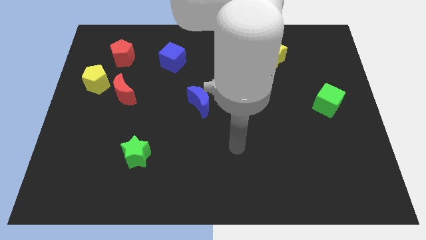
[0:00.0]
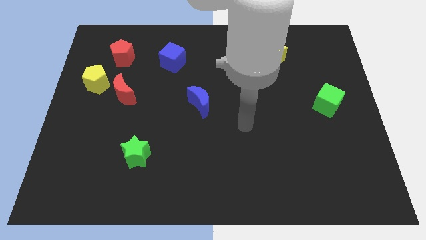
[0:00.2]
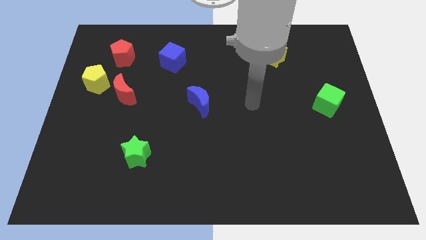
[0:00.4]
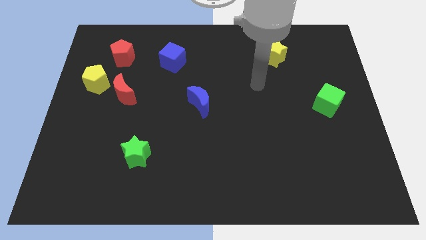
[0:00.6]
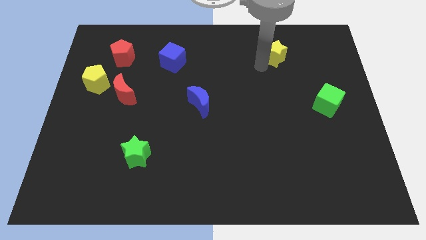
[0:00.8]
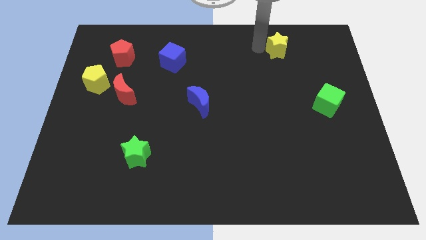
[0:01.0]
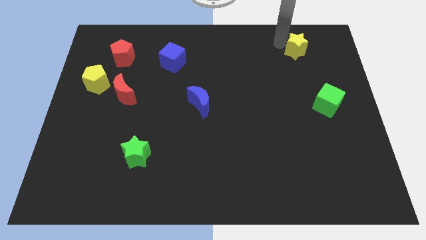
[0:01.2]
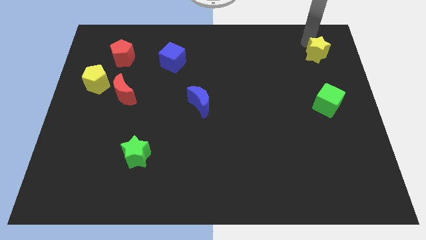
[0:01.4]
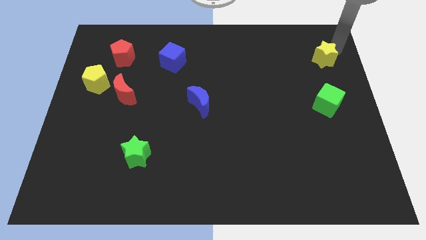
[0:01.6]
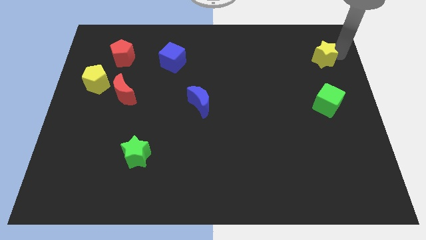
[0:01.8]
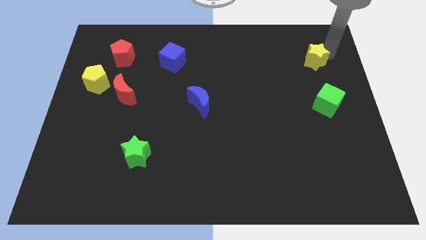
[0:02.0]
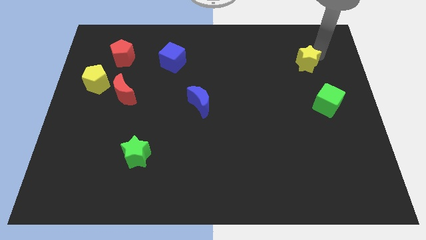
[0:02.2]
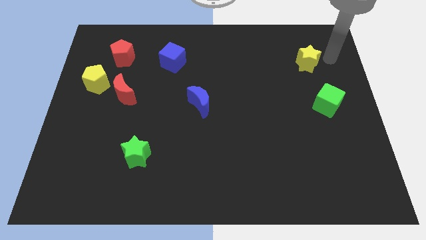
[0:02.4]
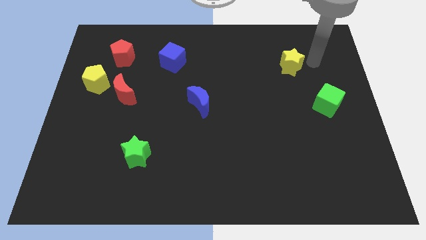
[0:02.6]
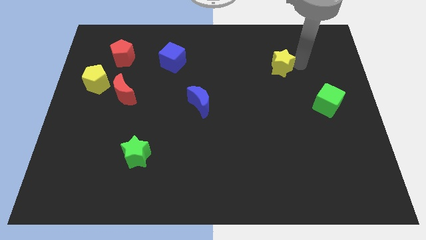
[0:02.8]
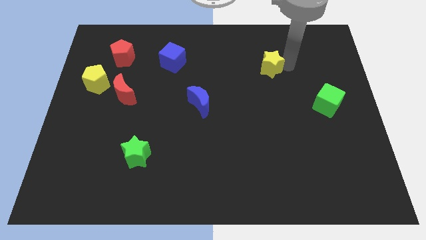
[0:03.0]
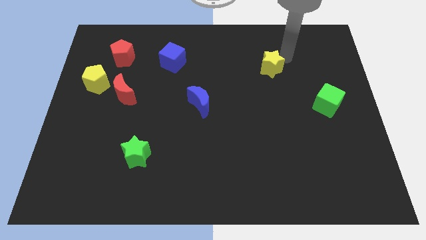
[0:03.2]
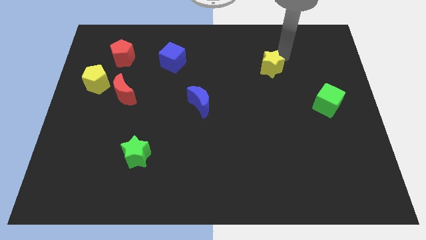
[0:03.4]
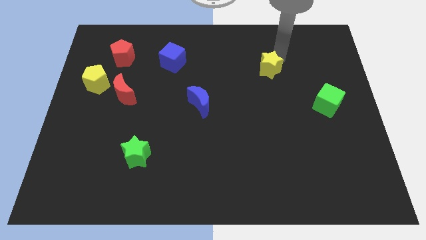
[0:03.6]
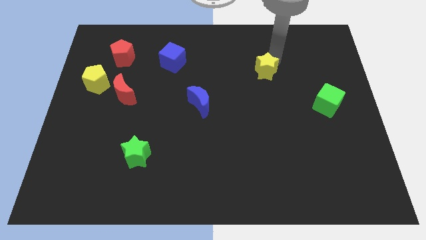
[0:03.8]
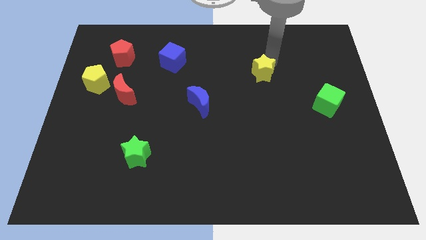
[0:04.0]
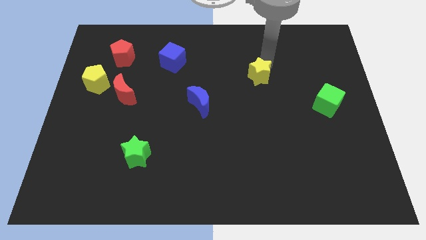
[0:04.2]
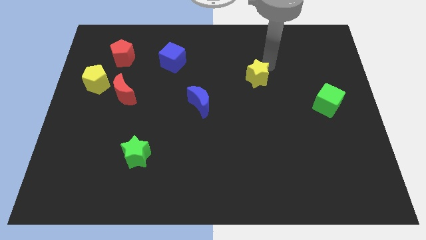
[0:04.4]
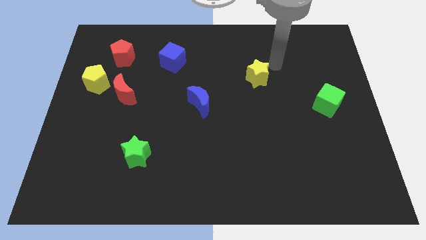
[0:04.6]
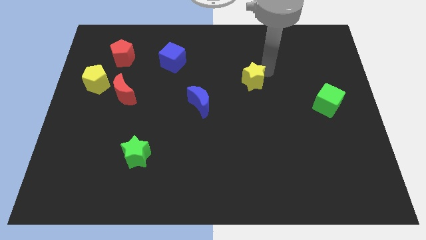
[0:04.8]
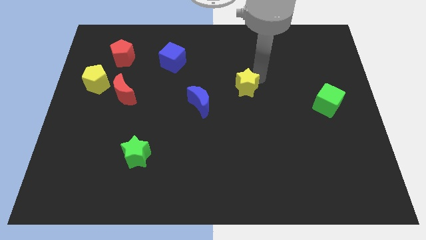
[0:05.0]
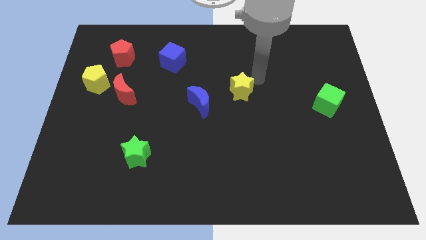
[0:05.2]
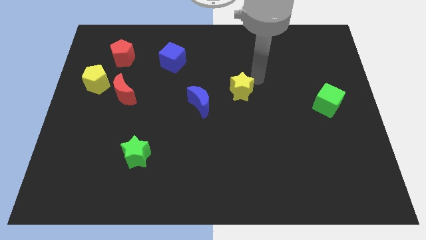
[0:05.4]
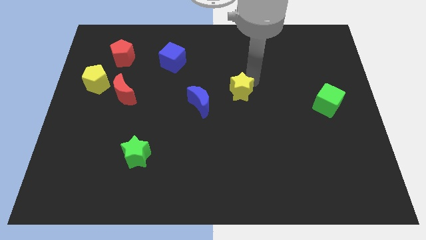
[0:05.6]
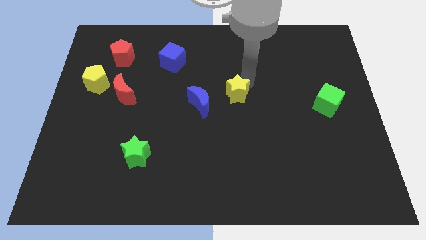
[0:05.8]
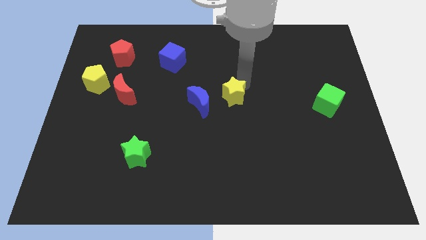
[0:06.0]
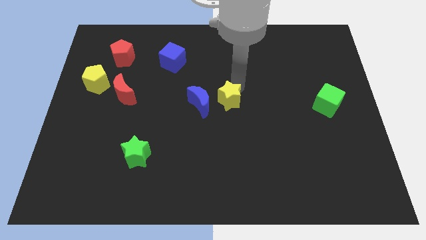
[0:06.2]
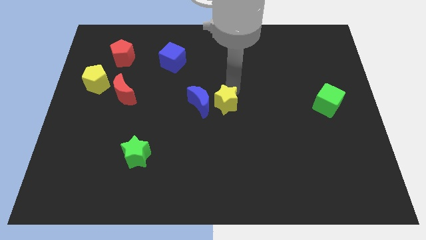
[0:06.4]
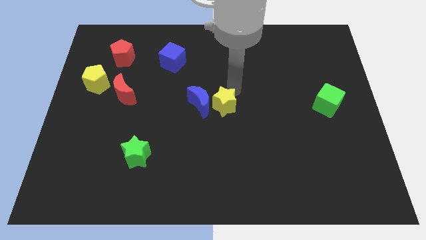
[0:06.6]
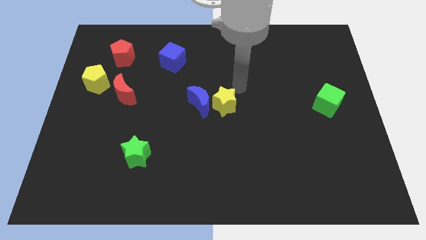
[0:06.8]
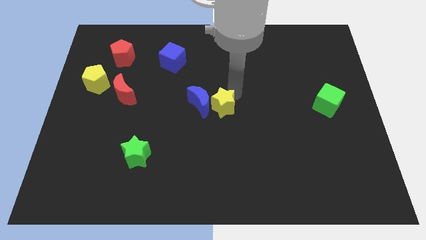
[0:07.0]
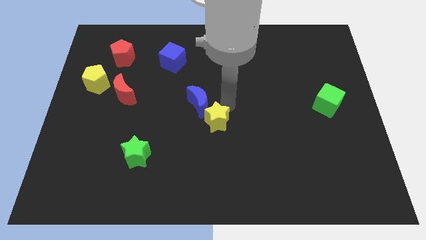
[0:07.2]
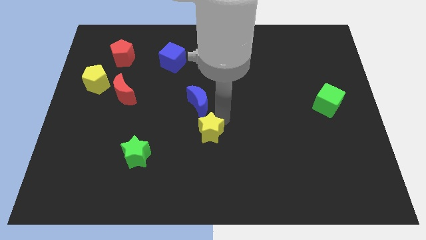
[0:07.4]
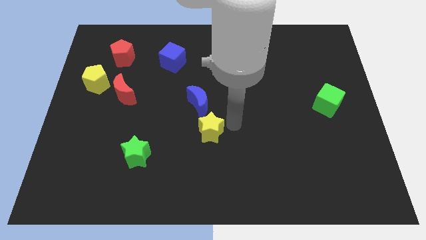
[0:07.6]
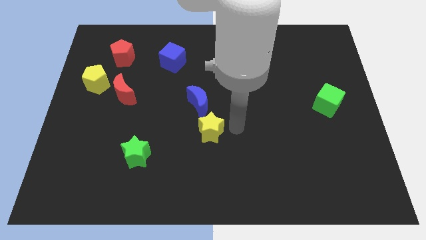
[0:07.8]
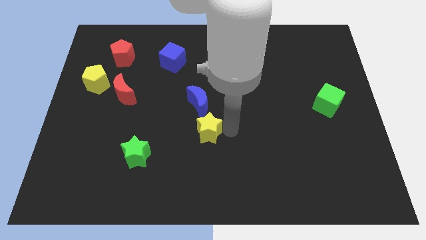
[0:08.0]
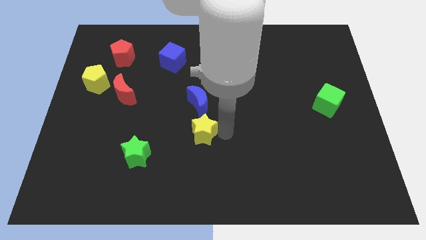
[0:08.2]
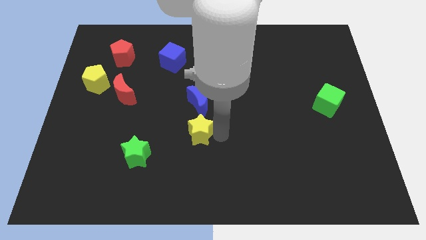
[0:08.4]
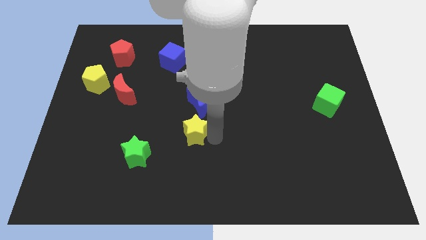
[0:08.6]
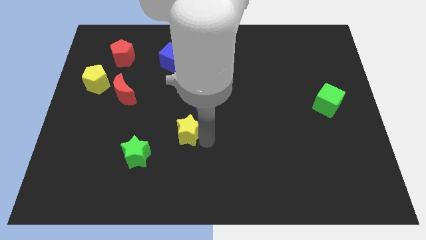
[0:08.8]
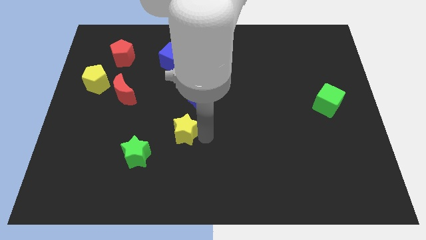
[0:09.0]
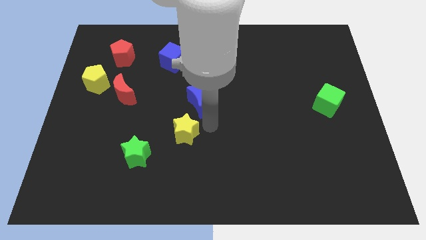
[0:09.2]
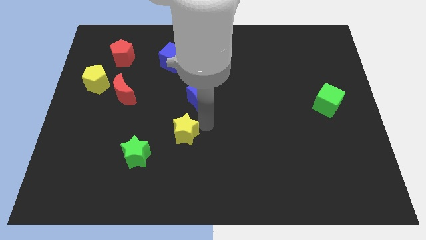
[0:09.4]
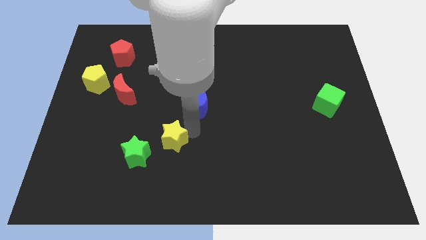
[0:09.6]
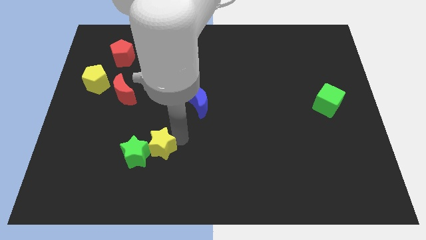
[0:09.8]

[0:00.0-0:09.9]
put the yellow star towards the green star

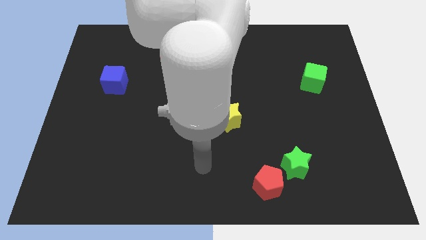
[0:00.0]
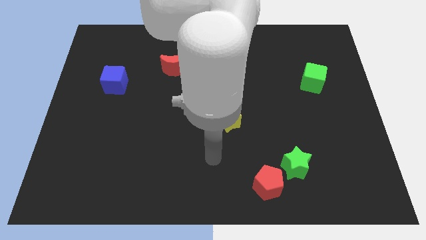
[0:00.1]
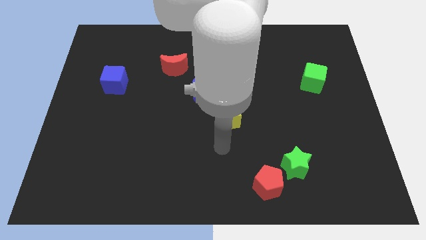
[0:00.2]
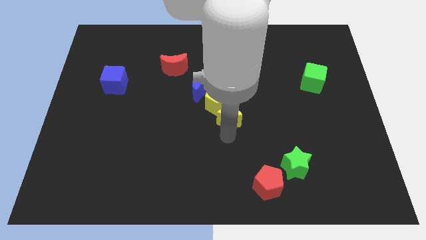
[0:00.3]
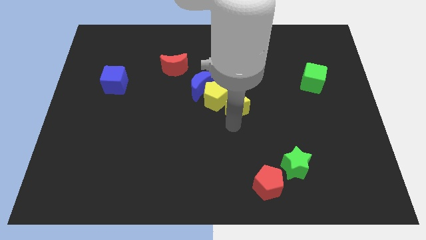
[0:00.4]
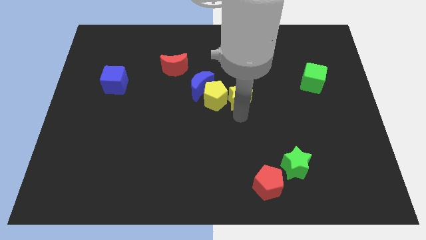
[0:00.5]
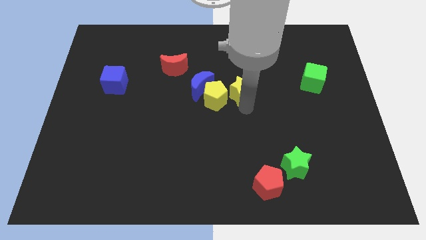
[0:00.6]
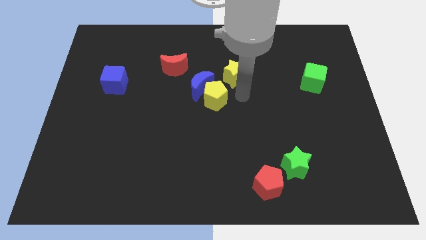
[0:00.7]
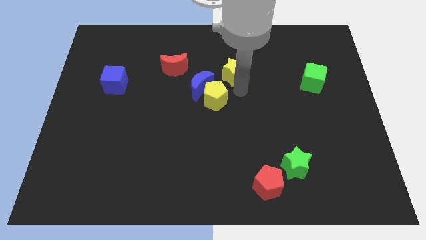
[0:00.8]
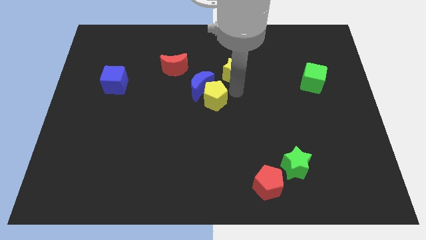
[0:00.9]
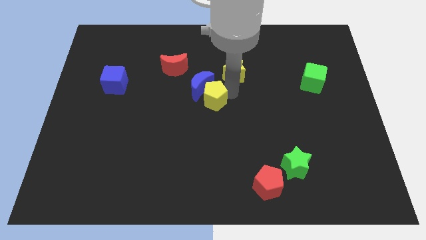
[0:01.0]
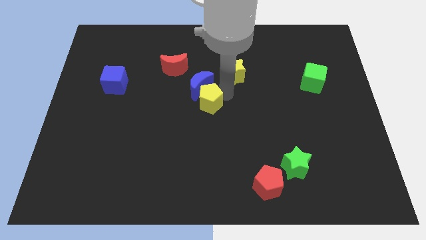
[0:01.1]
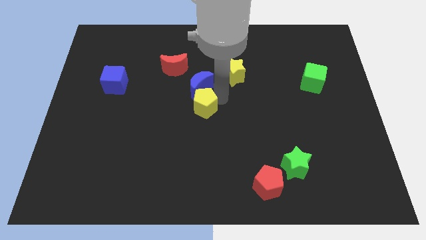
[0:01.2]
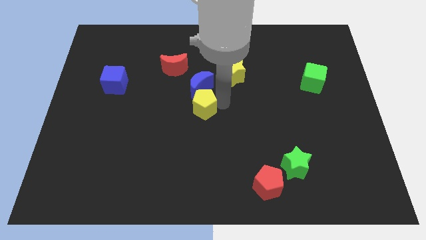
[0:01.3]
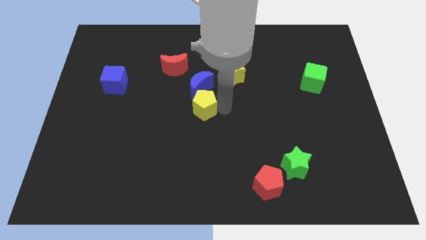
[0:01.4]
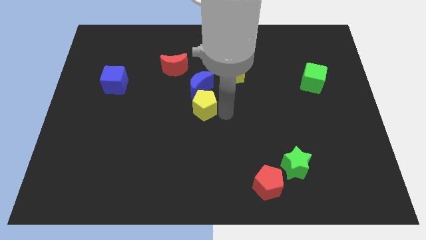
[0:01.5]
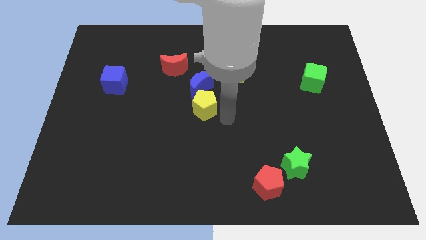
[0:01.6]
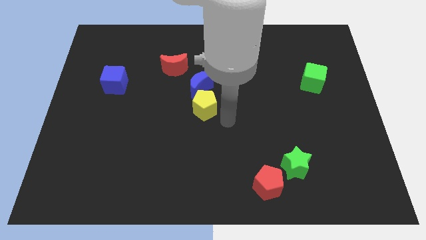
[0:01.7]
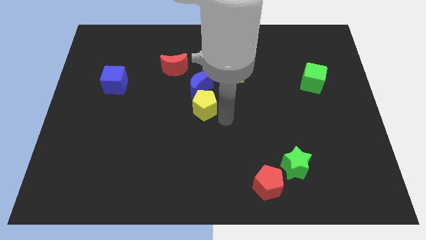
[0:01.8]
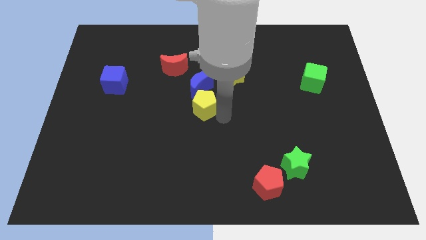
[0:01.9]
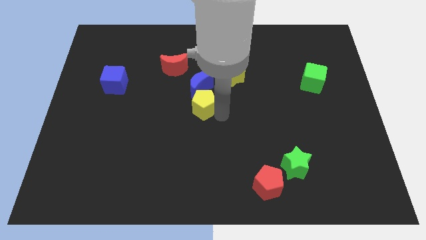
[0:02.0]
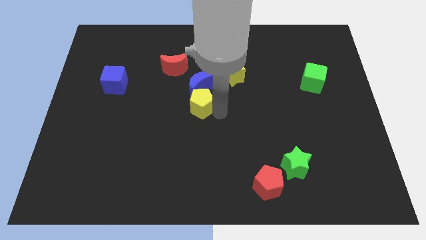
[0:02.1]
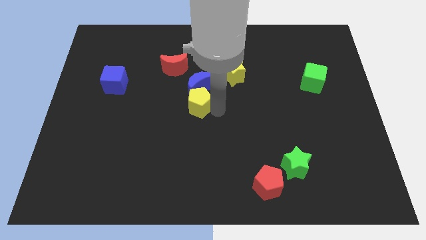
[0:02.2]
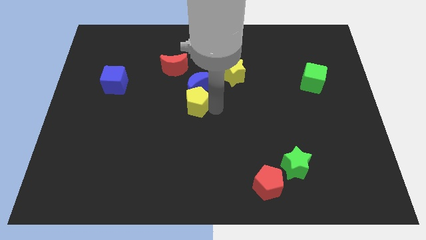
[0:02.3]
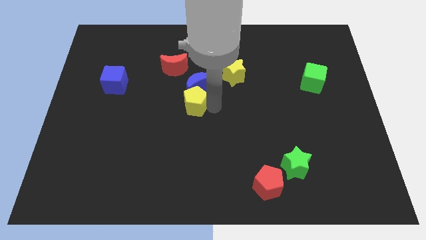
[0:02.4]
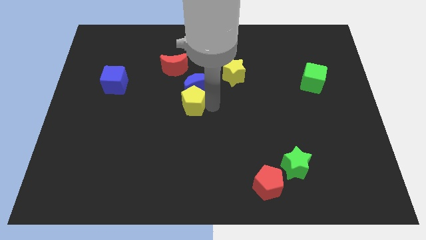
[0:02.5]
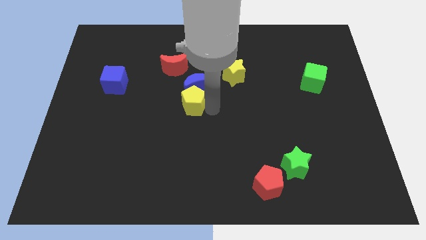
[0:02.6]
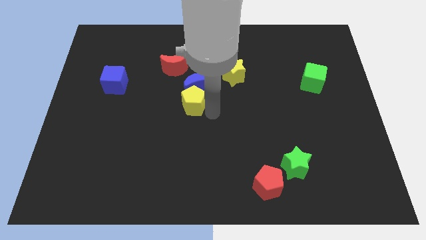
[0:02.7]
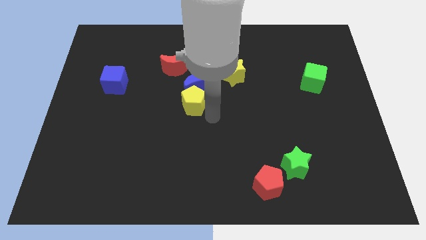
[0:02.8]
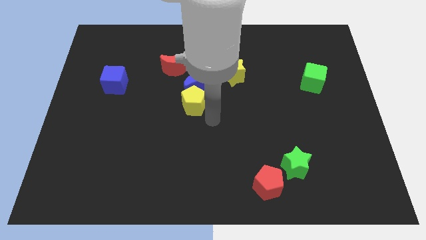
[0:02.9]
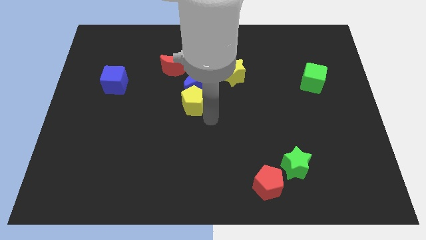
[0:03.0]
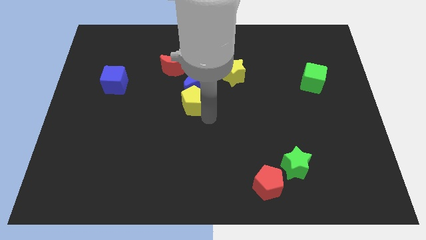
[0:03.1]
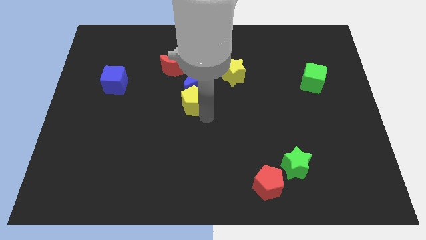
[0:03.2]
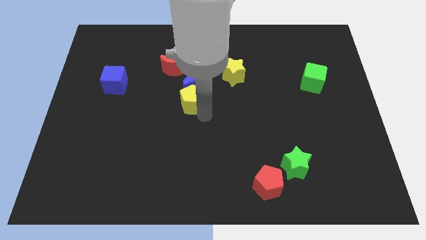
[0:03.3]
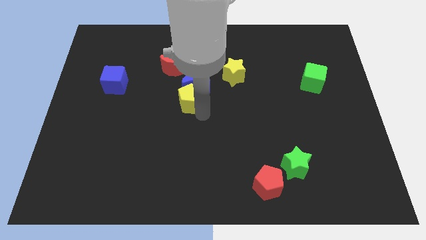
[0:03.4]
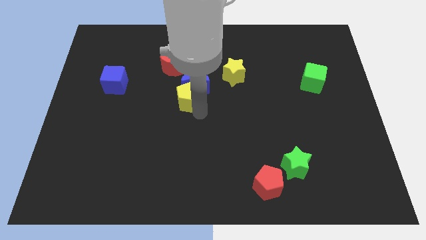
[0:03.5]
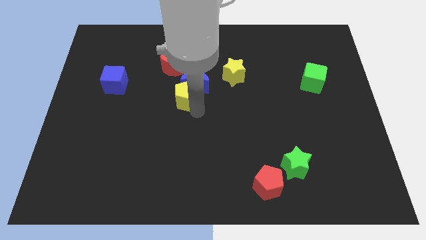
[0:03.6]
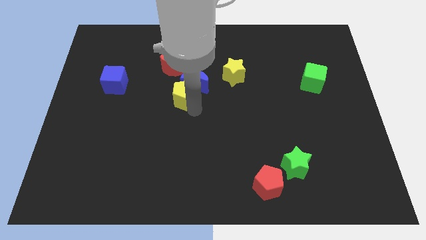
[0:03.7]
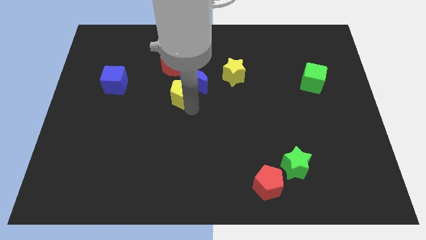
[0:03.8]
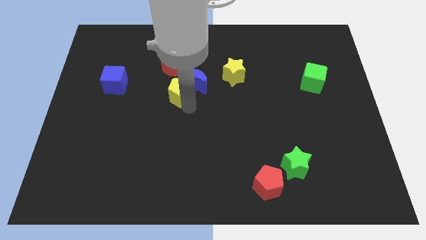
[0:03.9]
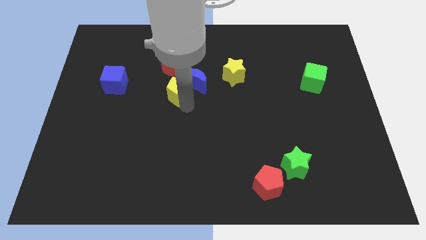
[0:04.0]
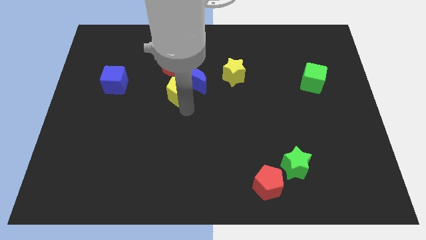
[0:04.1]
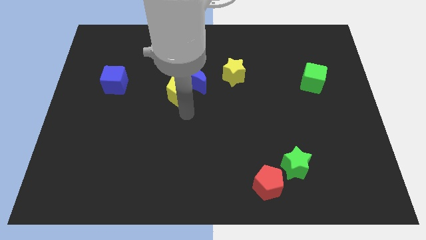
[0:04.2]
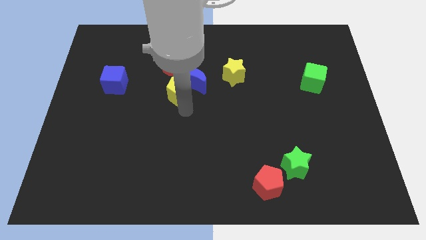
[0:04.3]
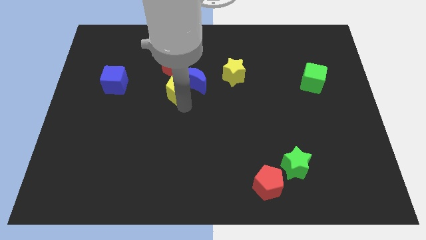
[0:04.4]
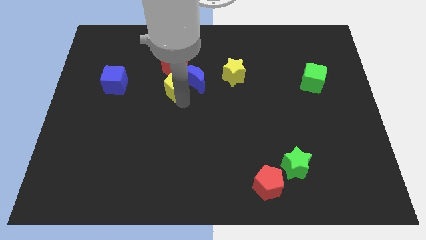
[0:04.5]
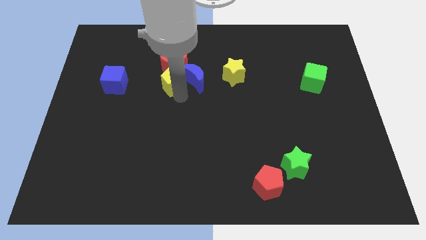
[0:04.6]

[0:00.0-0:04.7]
move the yellow pentagon next to the red moon
